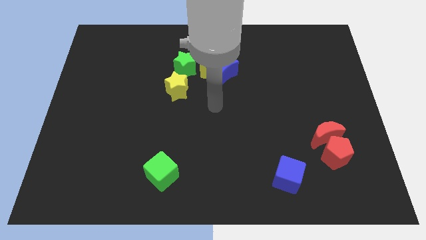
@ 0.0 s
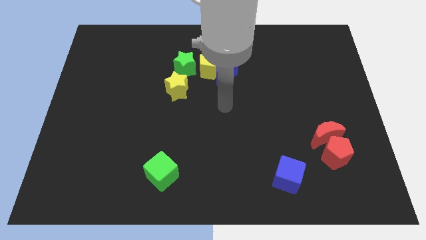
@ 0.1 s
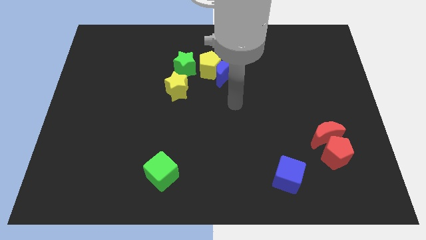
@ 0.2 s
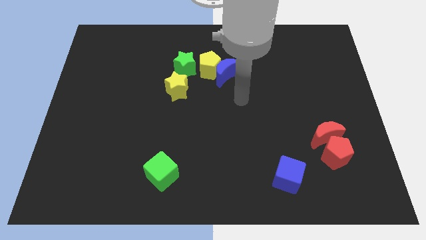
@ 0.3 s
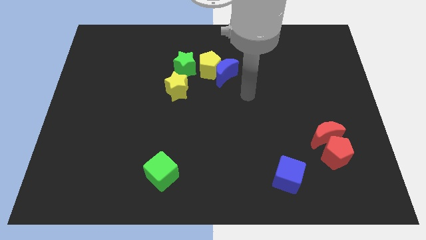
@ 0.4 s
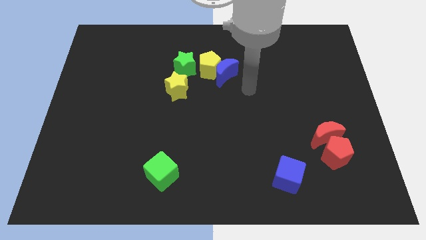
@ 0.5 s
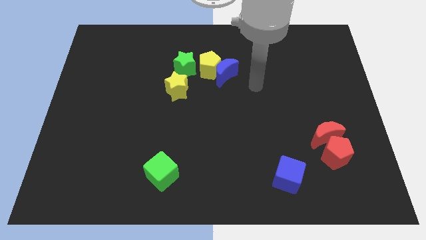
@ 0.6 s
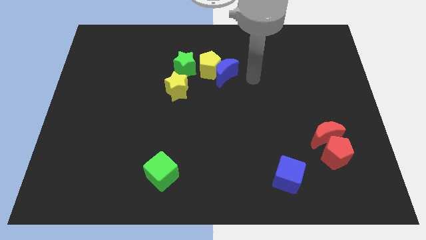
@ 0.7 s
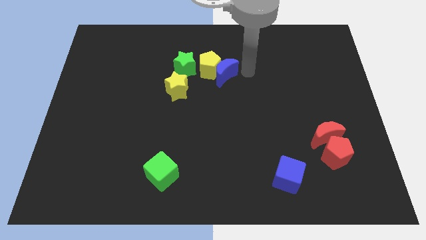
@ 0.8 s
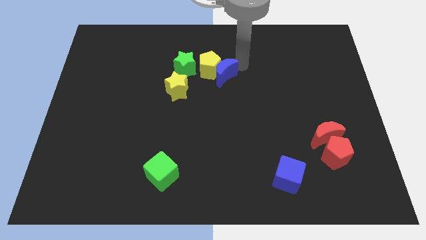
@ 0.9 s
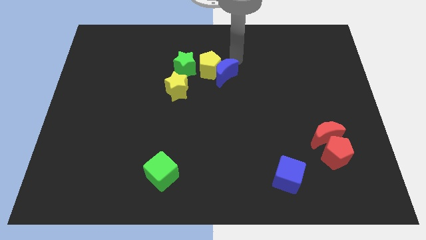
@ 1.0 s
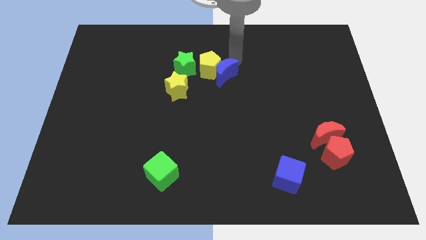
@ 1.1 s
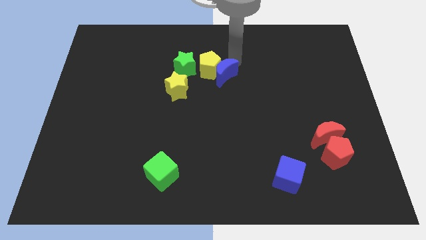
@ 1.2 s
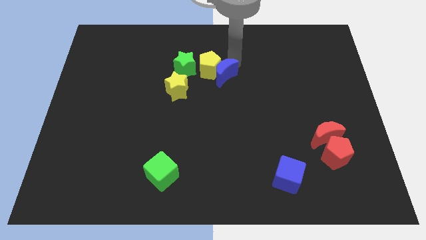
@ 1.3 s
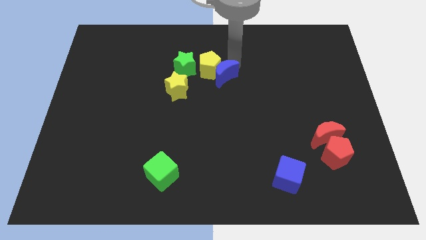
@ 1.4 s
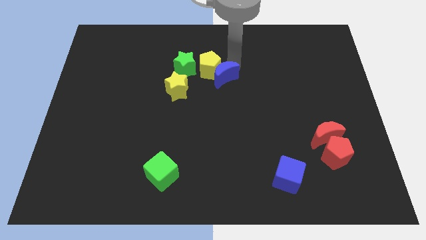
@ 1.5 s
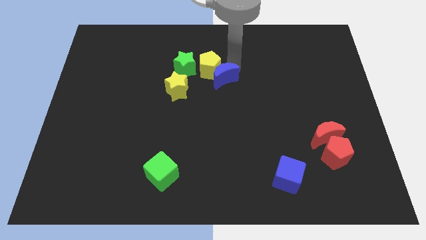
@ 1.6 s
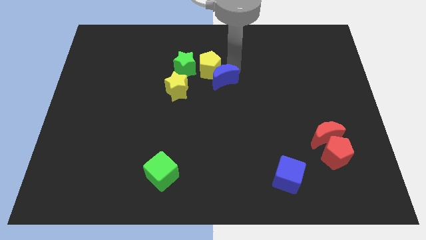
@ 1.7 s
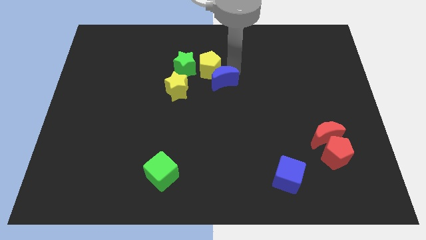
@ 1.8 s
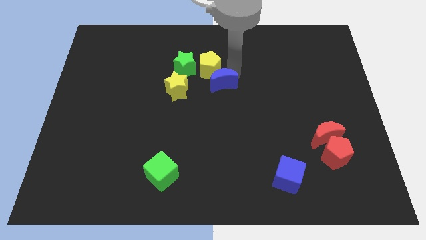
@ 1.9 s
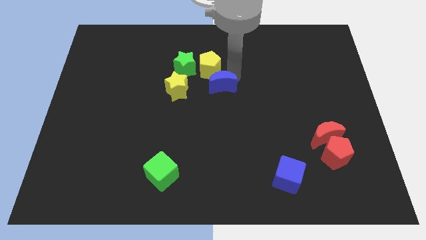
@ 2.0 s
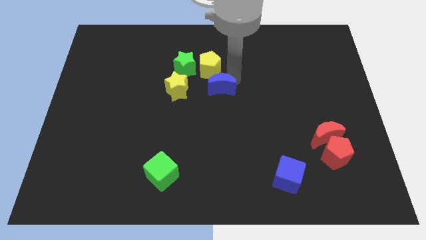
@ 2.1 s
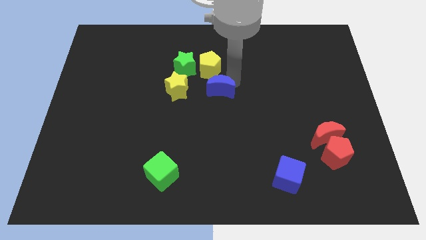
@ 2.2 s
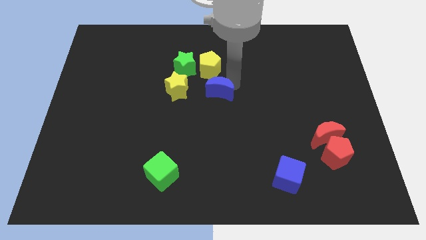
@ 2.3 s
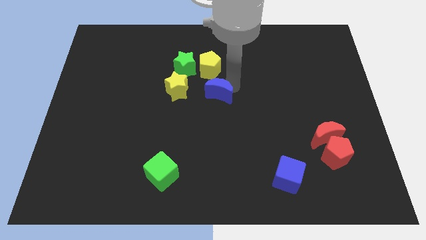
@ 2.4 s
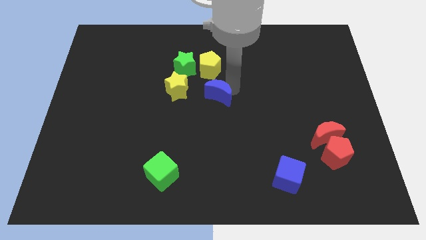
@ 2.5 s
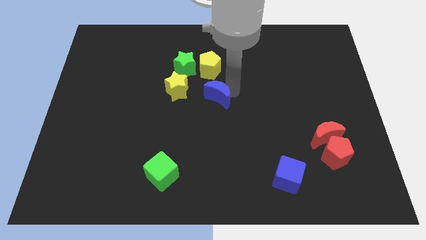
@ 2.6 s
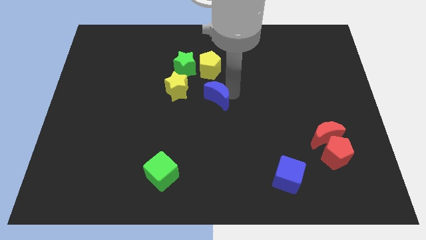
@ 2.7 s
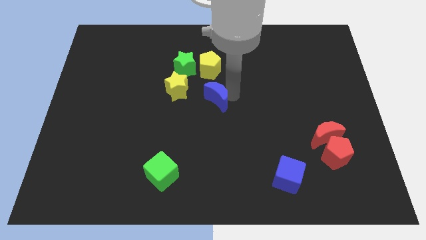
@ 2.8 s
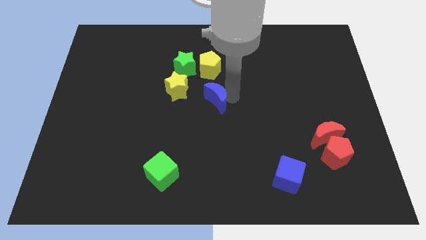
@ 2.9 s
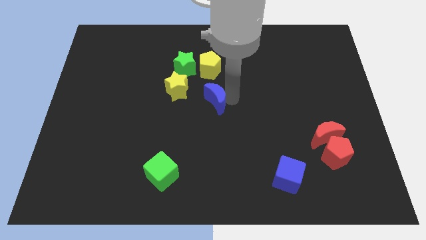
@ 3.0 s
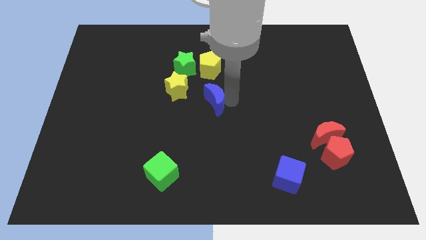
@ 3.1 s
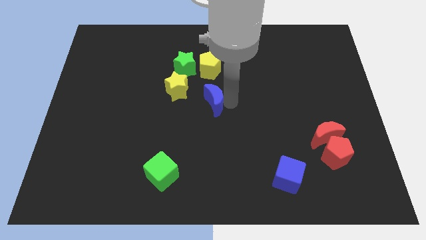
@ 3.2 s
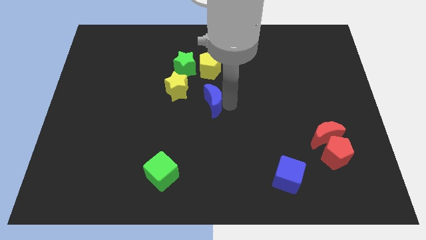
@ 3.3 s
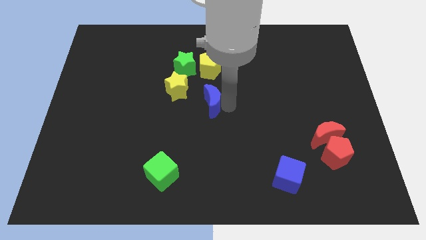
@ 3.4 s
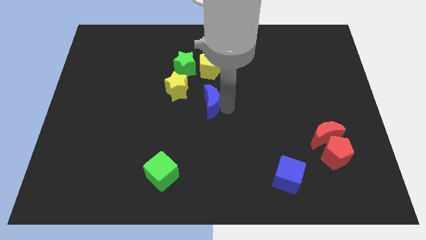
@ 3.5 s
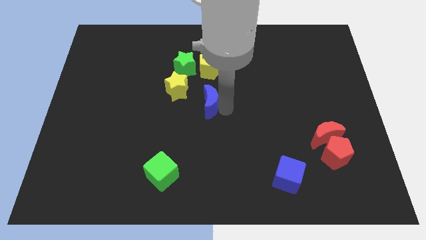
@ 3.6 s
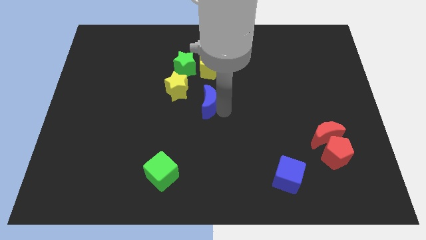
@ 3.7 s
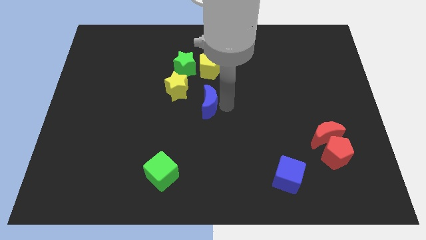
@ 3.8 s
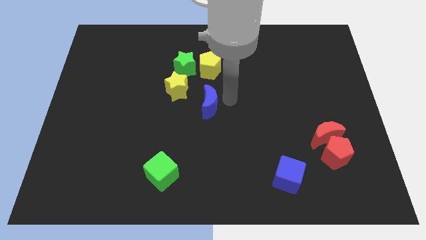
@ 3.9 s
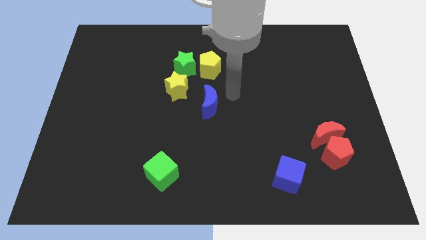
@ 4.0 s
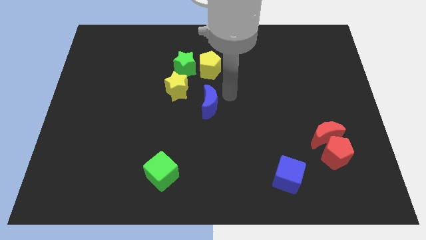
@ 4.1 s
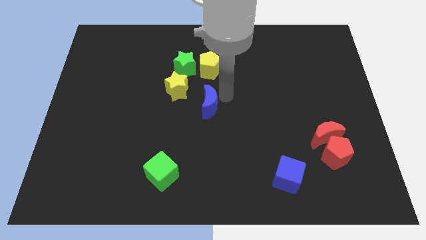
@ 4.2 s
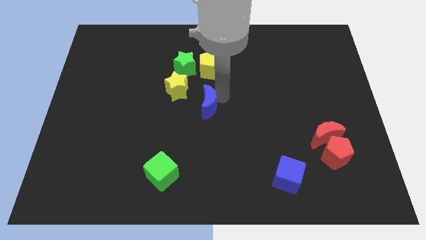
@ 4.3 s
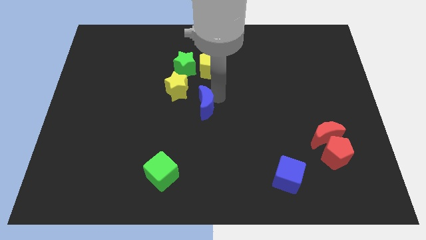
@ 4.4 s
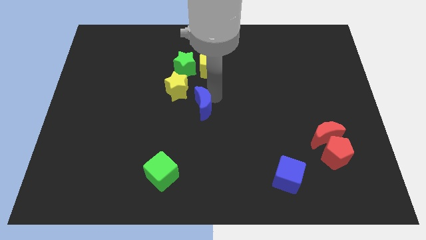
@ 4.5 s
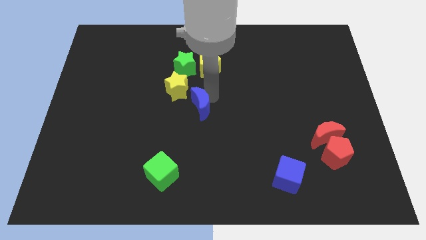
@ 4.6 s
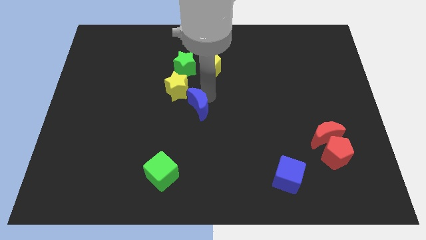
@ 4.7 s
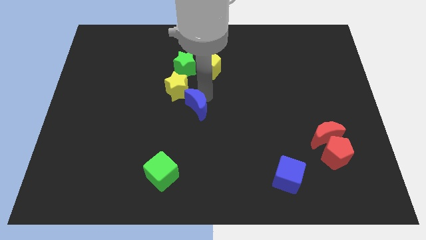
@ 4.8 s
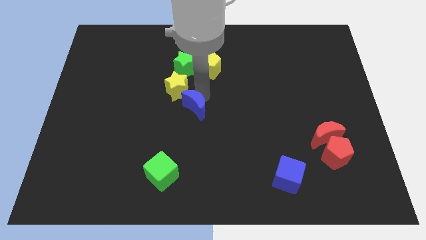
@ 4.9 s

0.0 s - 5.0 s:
slide the blue moon to the bottom of the yellow star

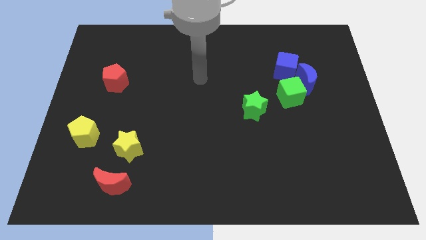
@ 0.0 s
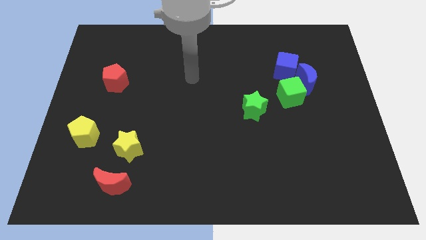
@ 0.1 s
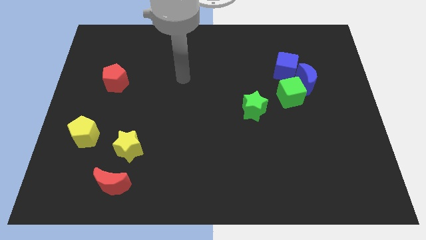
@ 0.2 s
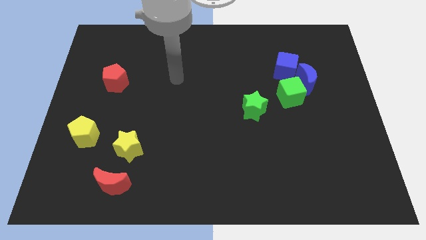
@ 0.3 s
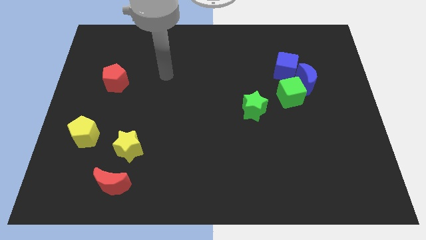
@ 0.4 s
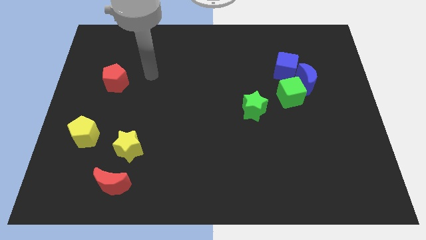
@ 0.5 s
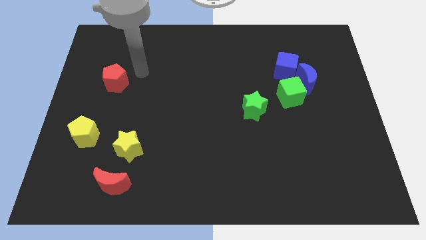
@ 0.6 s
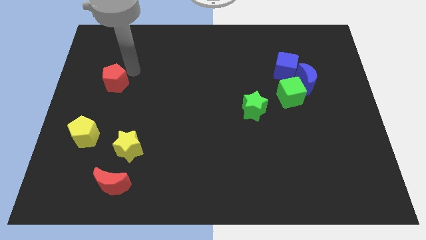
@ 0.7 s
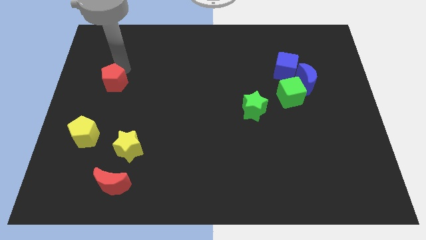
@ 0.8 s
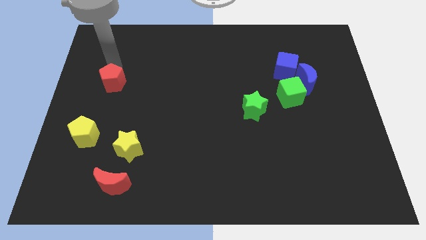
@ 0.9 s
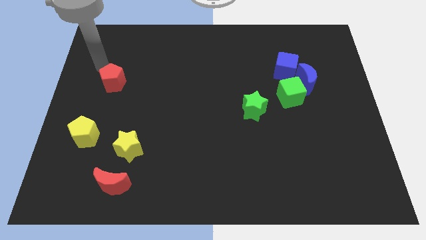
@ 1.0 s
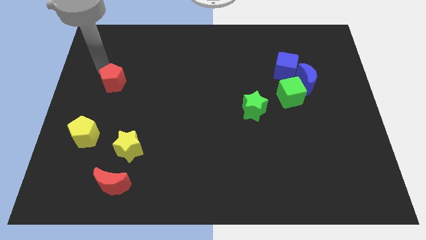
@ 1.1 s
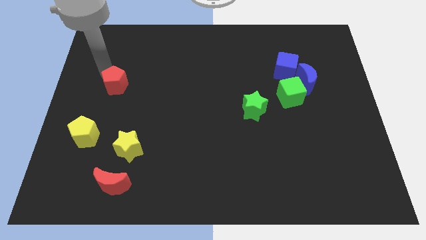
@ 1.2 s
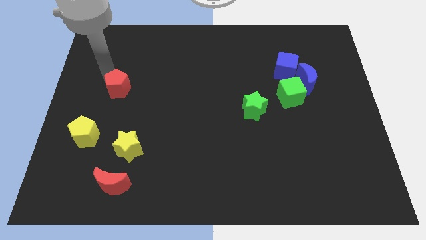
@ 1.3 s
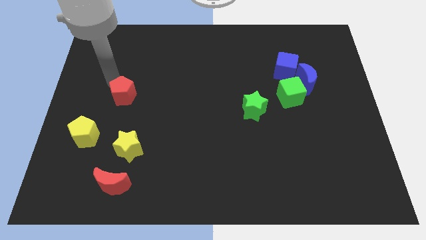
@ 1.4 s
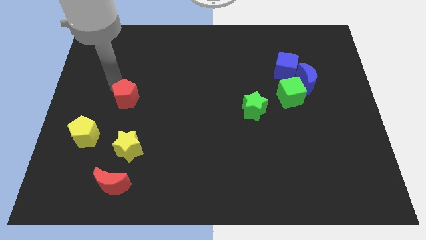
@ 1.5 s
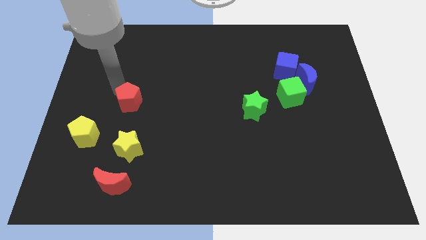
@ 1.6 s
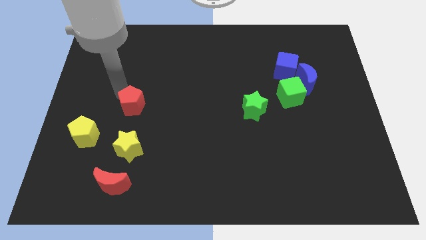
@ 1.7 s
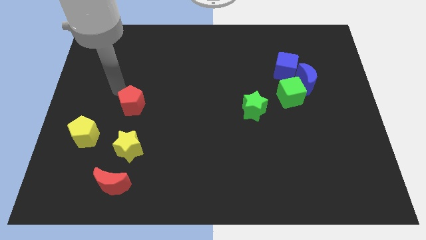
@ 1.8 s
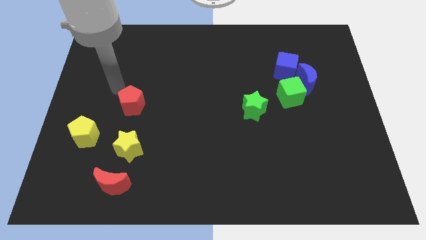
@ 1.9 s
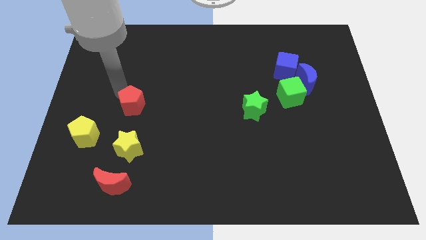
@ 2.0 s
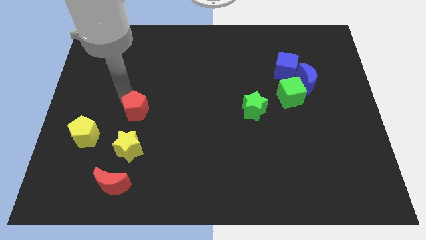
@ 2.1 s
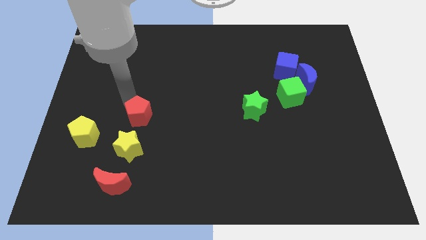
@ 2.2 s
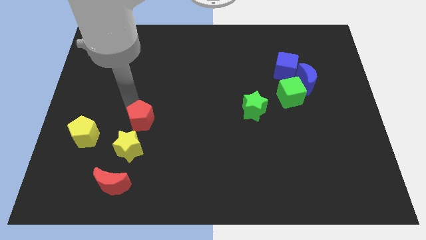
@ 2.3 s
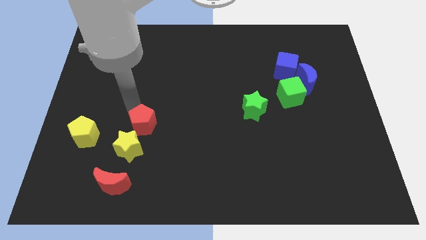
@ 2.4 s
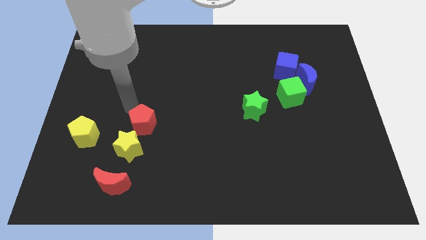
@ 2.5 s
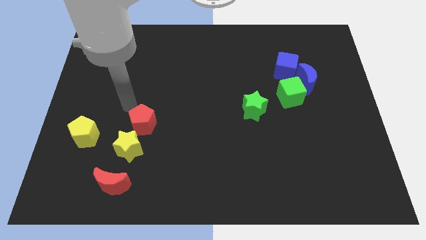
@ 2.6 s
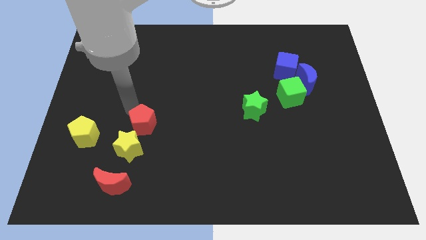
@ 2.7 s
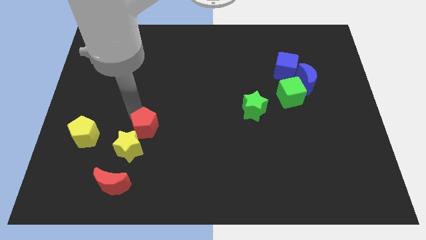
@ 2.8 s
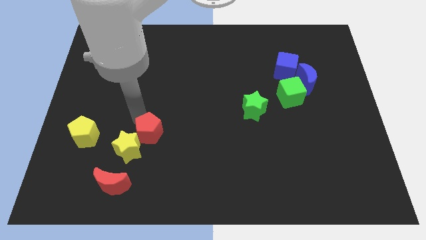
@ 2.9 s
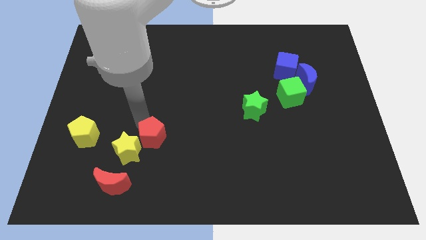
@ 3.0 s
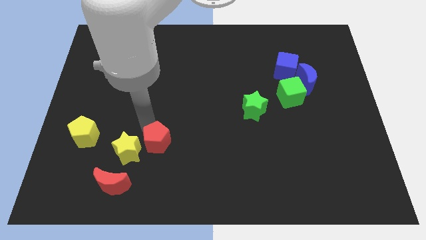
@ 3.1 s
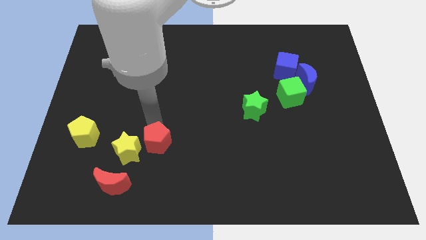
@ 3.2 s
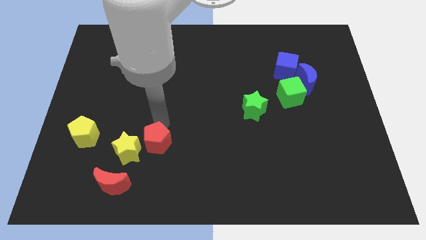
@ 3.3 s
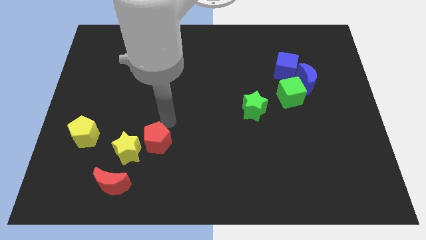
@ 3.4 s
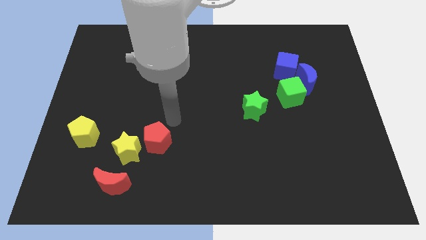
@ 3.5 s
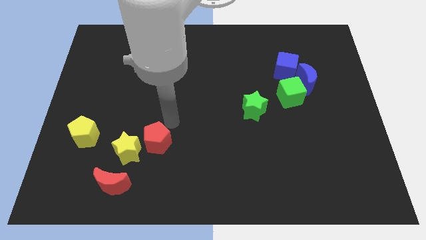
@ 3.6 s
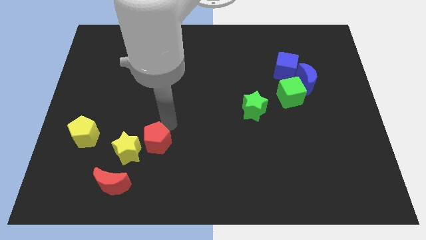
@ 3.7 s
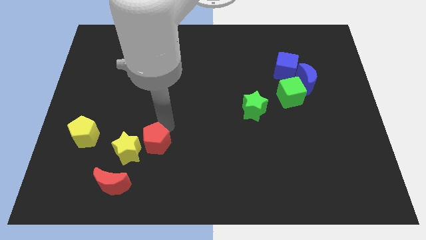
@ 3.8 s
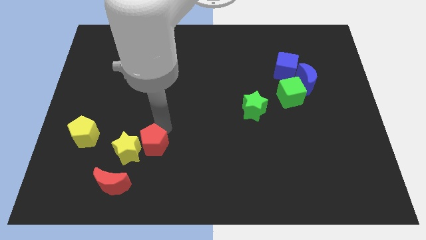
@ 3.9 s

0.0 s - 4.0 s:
push the red pentagon to the top right side of the red moon
